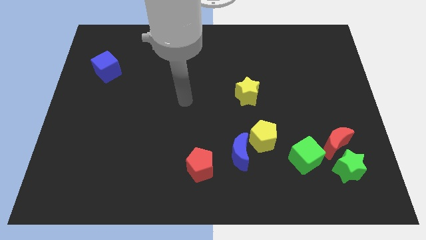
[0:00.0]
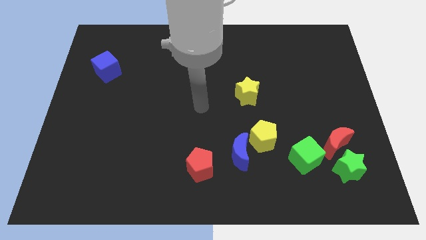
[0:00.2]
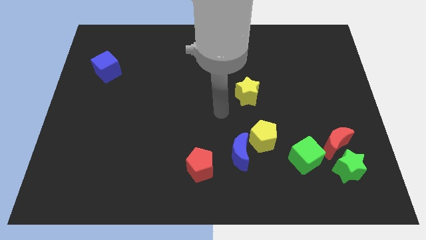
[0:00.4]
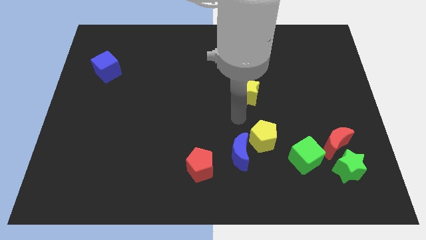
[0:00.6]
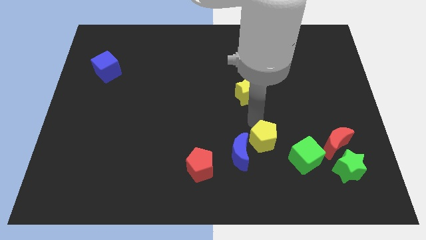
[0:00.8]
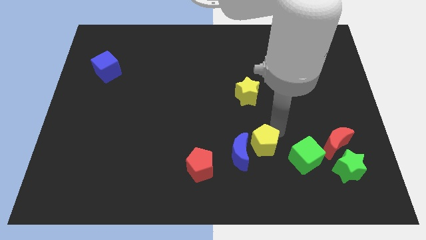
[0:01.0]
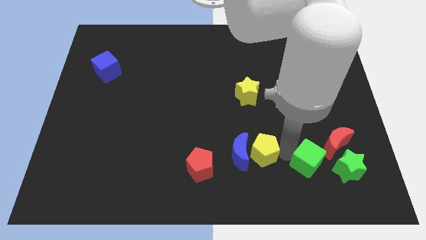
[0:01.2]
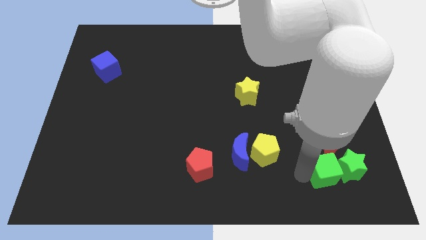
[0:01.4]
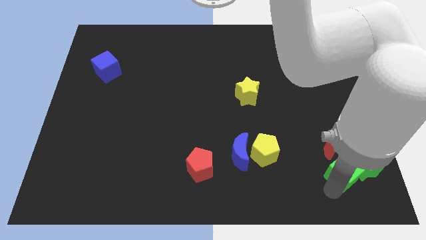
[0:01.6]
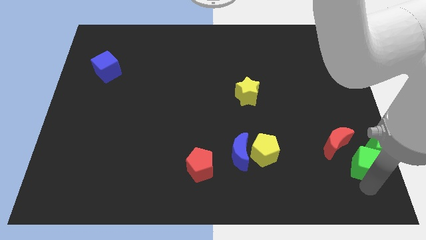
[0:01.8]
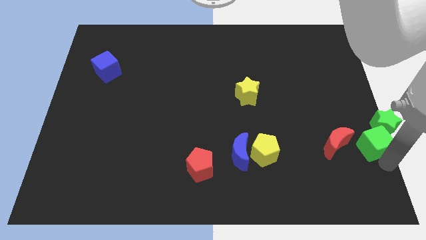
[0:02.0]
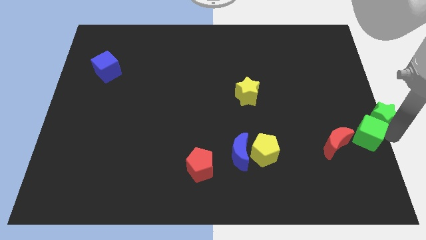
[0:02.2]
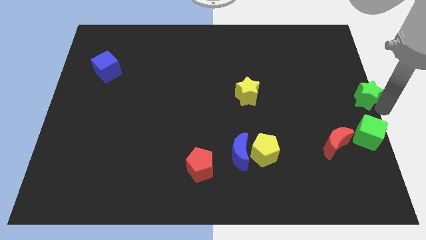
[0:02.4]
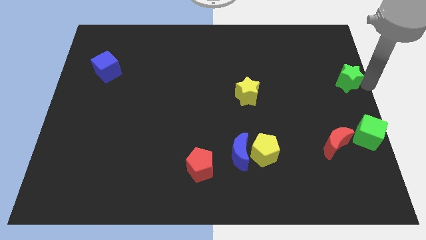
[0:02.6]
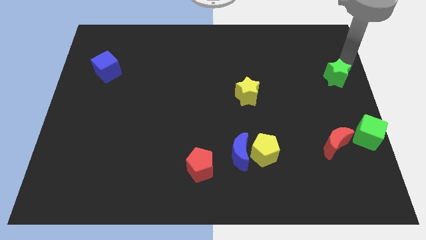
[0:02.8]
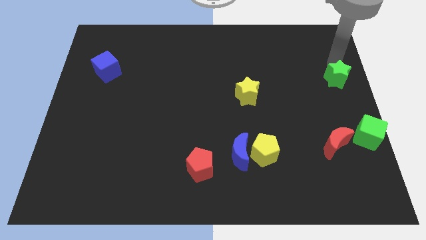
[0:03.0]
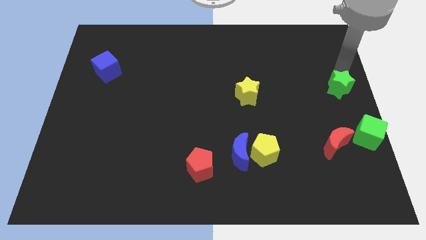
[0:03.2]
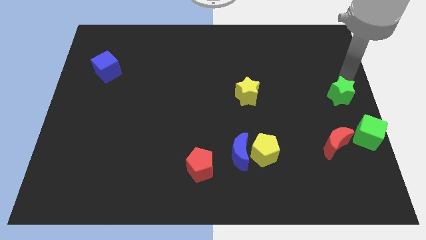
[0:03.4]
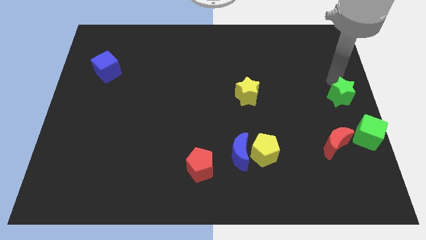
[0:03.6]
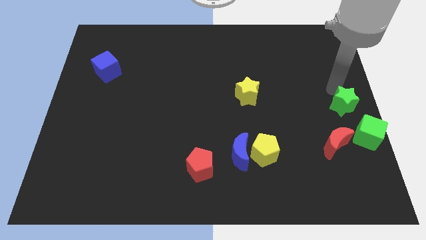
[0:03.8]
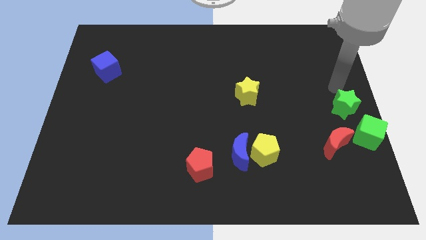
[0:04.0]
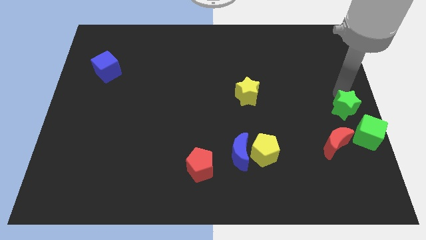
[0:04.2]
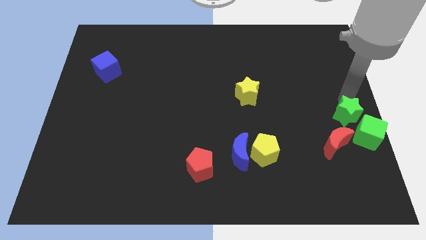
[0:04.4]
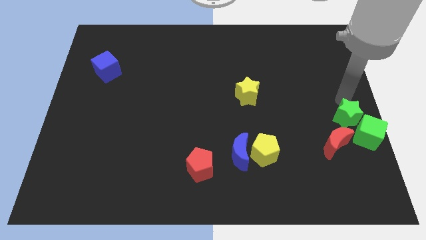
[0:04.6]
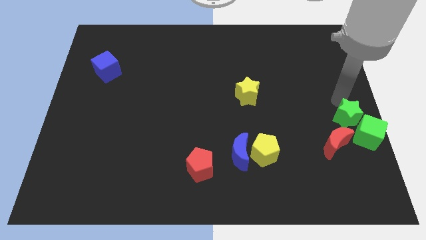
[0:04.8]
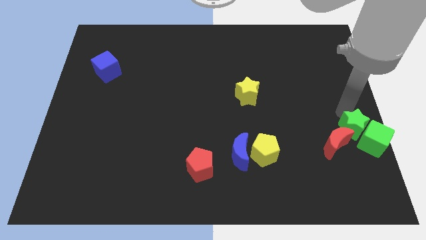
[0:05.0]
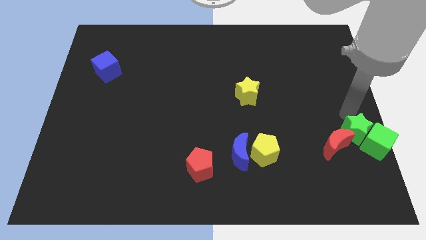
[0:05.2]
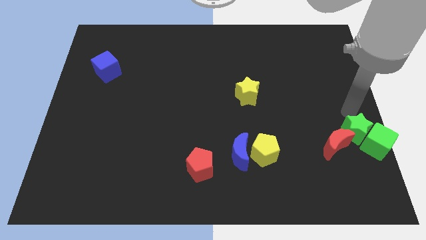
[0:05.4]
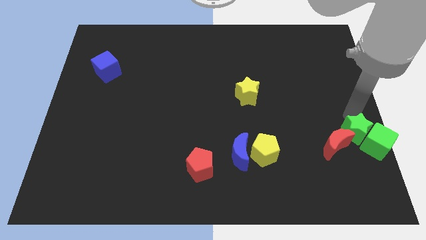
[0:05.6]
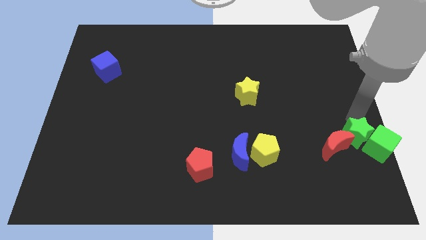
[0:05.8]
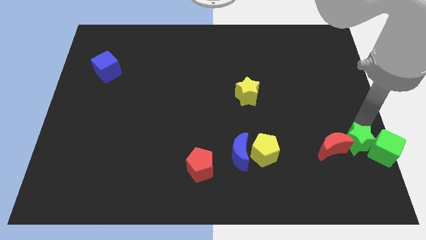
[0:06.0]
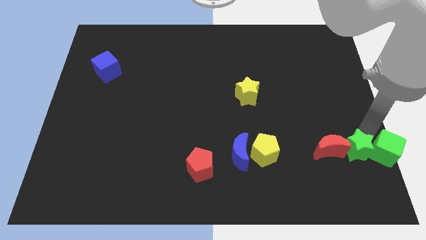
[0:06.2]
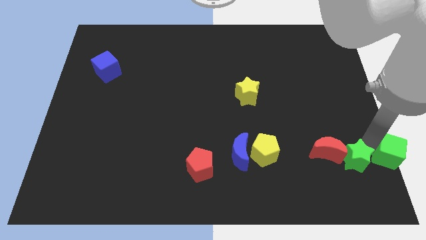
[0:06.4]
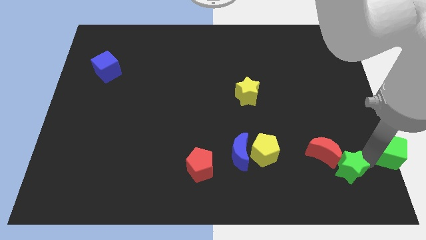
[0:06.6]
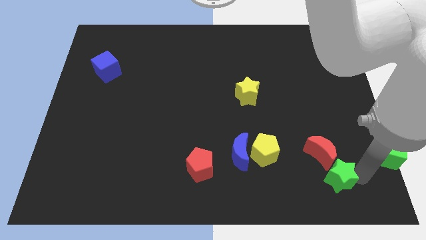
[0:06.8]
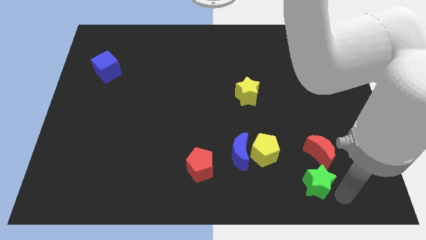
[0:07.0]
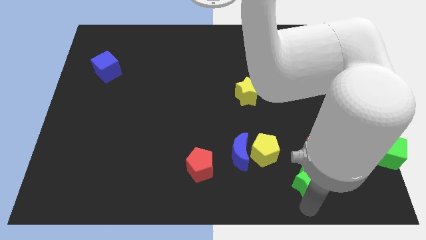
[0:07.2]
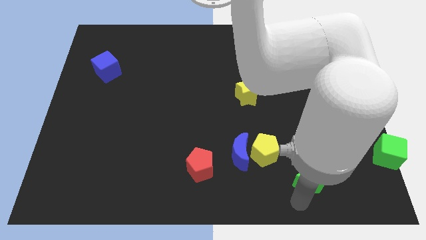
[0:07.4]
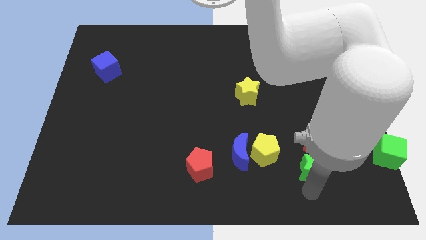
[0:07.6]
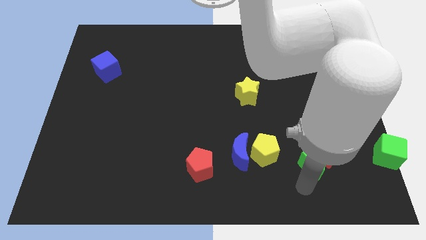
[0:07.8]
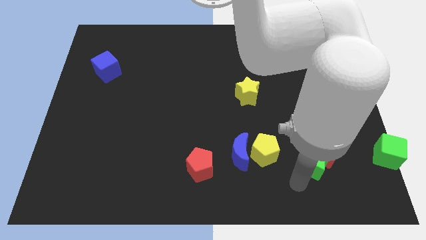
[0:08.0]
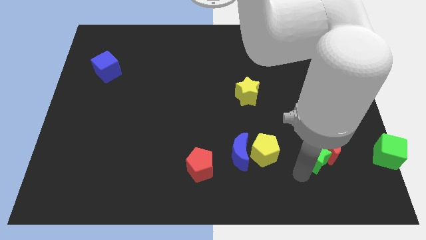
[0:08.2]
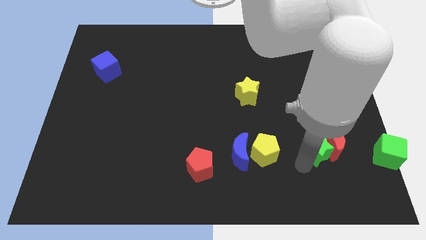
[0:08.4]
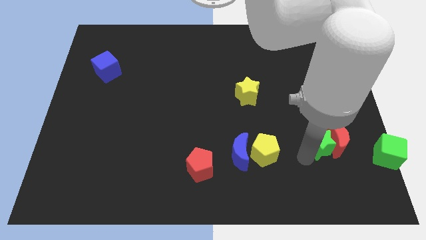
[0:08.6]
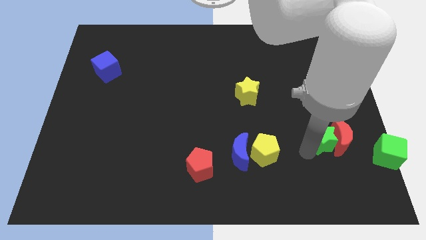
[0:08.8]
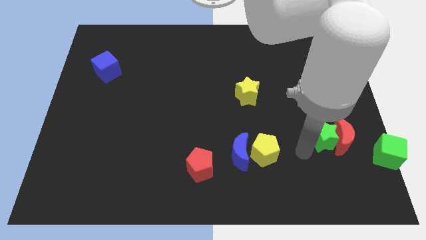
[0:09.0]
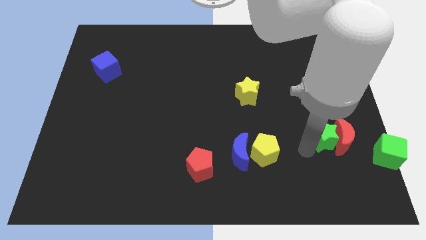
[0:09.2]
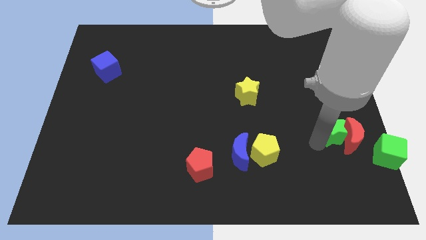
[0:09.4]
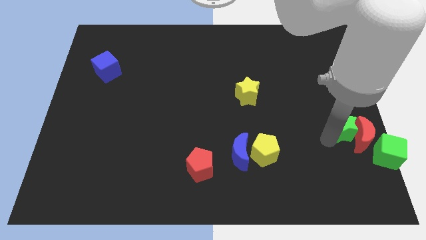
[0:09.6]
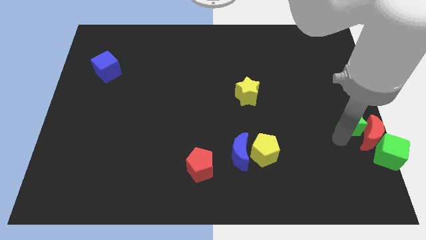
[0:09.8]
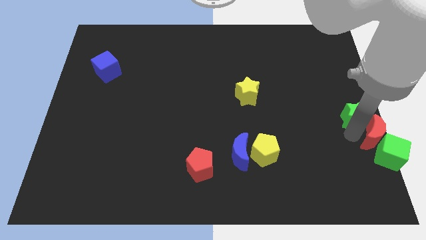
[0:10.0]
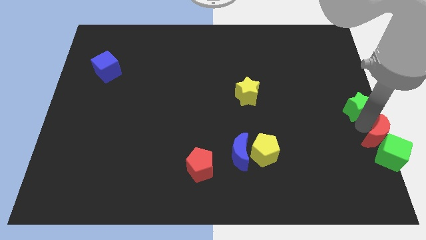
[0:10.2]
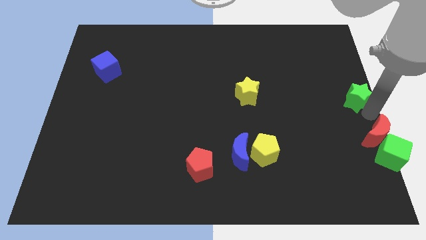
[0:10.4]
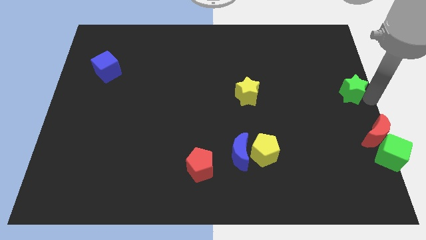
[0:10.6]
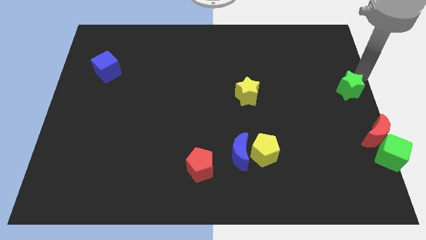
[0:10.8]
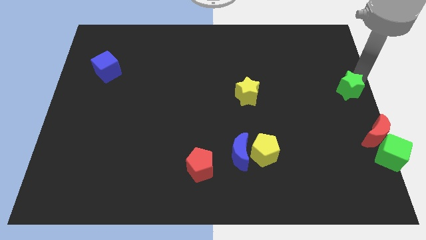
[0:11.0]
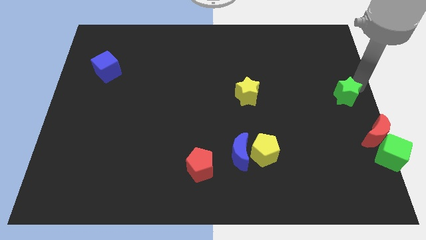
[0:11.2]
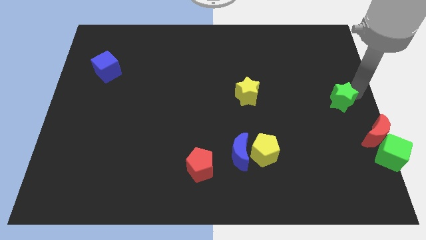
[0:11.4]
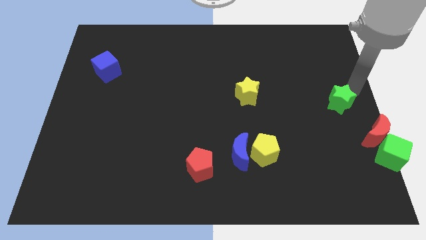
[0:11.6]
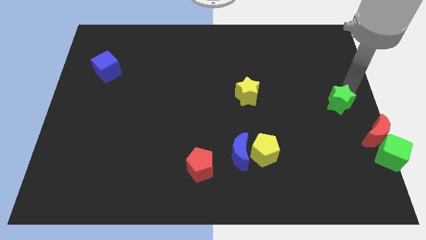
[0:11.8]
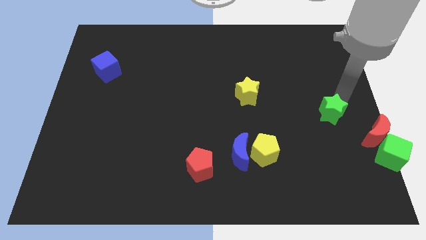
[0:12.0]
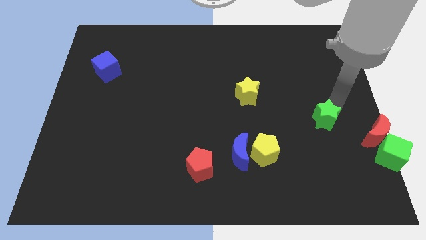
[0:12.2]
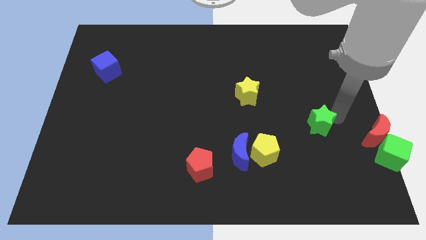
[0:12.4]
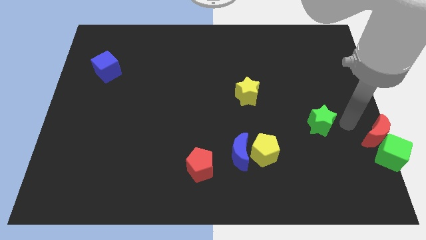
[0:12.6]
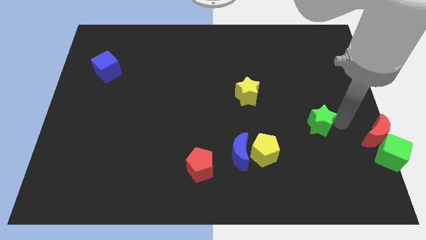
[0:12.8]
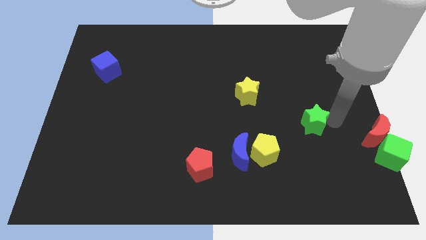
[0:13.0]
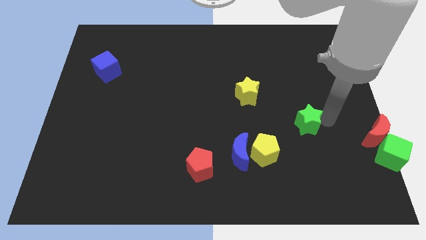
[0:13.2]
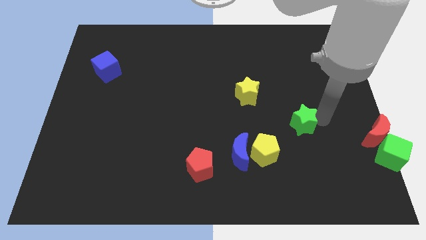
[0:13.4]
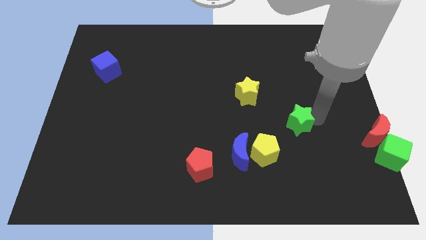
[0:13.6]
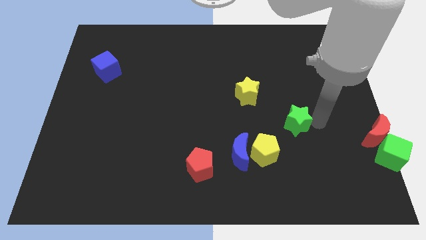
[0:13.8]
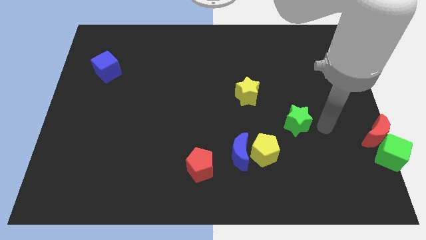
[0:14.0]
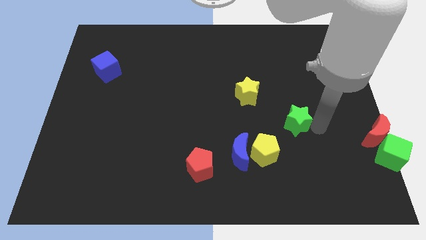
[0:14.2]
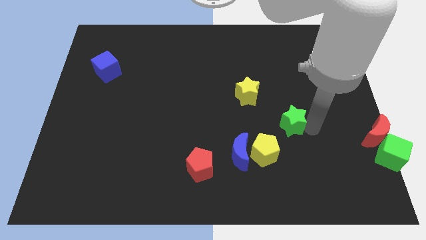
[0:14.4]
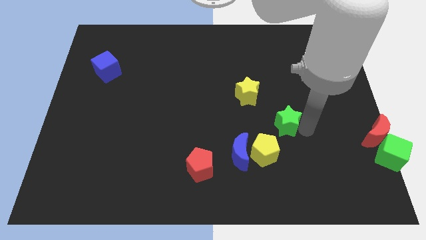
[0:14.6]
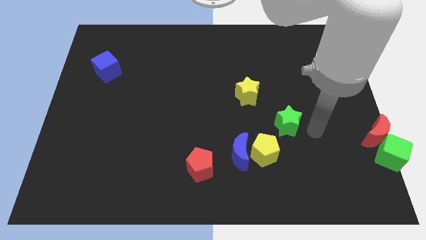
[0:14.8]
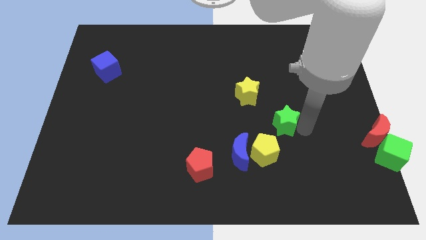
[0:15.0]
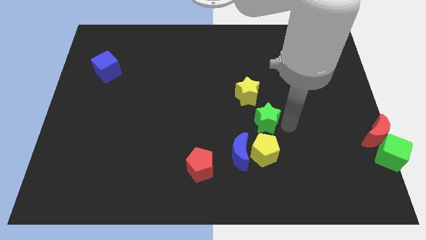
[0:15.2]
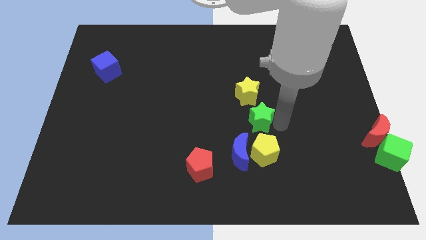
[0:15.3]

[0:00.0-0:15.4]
move the green star above the blue moon
